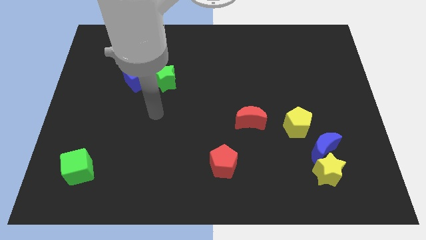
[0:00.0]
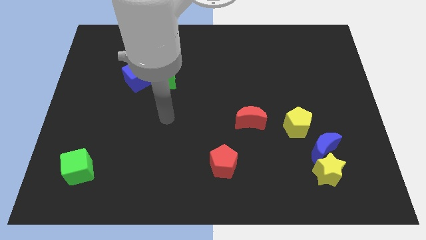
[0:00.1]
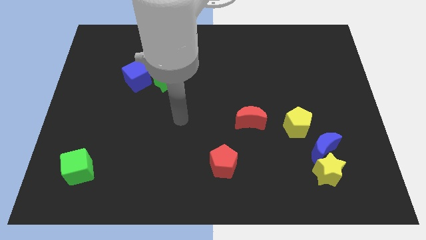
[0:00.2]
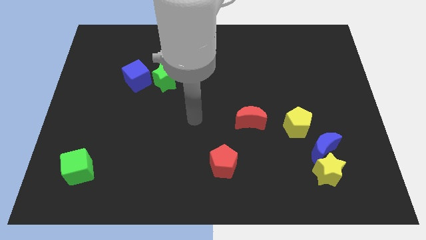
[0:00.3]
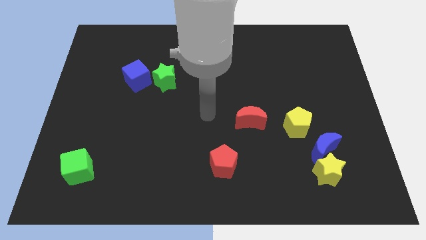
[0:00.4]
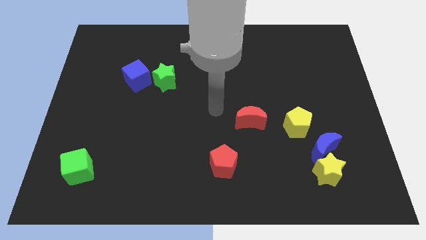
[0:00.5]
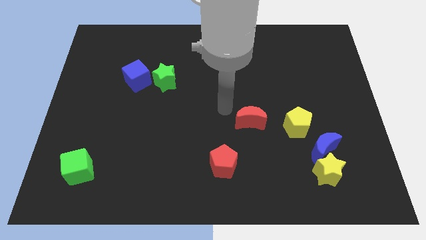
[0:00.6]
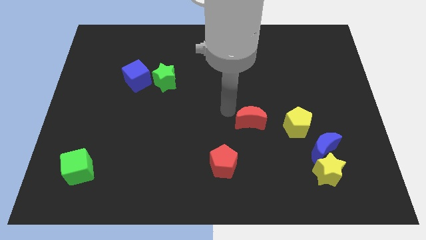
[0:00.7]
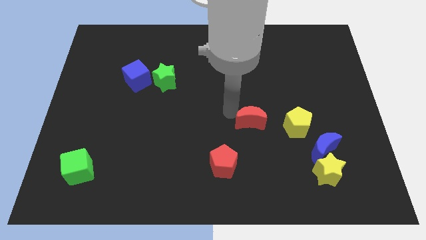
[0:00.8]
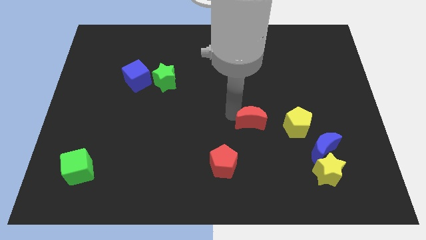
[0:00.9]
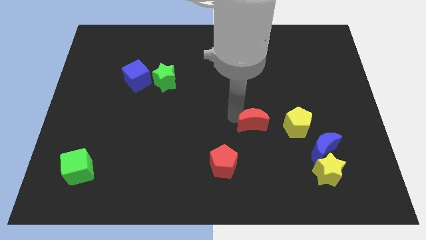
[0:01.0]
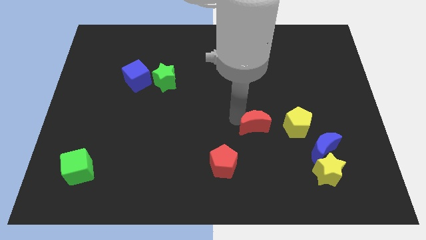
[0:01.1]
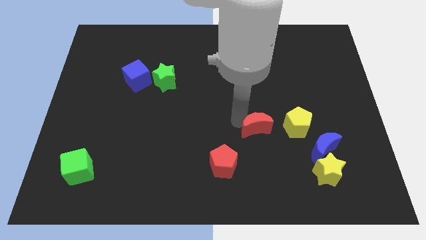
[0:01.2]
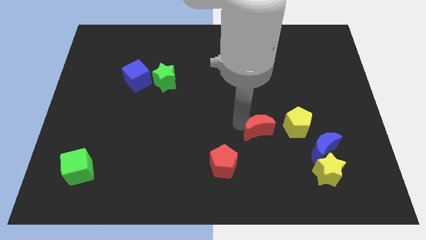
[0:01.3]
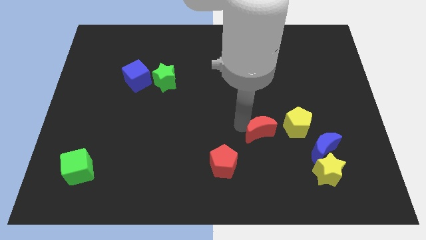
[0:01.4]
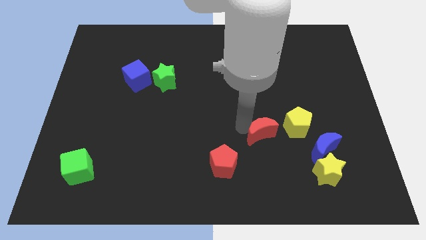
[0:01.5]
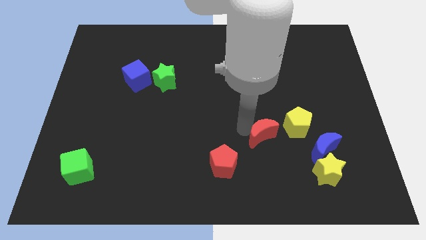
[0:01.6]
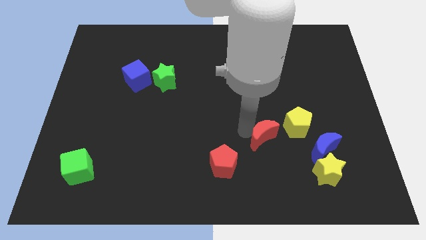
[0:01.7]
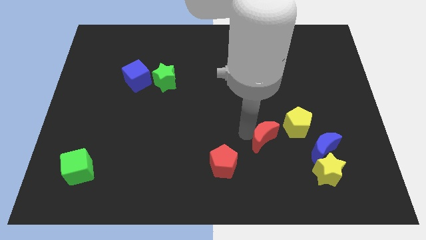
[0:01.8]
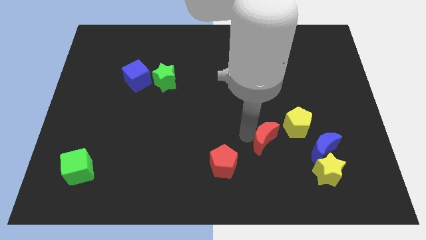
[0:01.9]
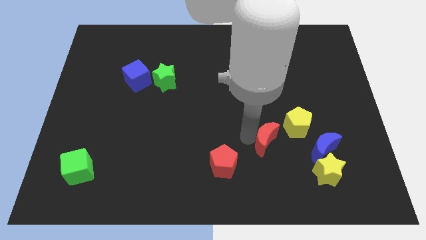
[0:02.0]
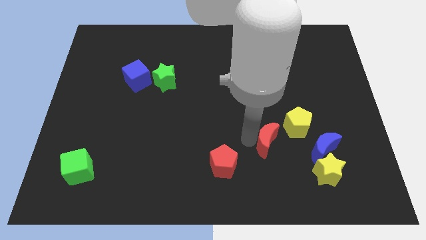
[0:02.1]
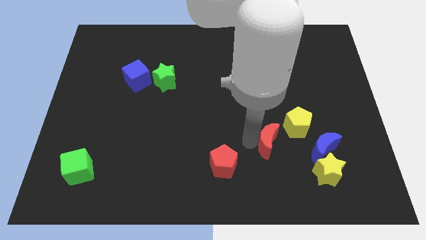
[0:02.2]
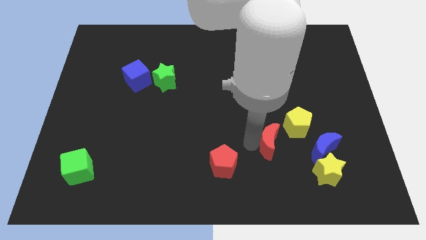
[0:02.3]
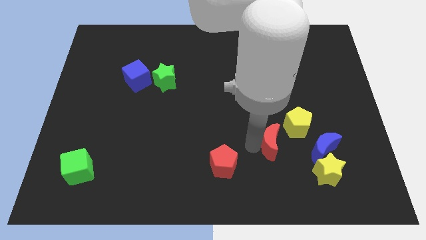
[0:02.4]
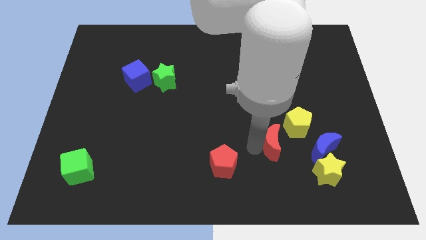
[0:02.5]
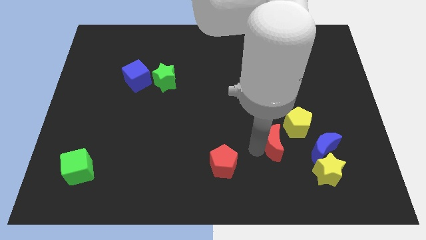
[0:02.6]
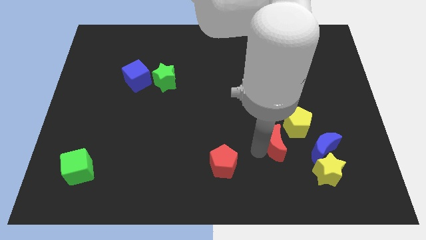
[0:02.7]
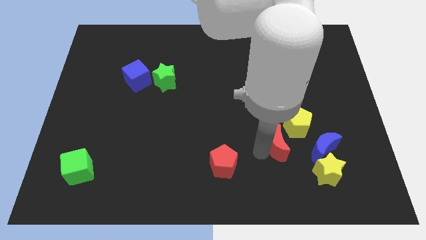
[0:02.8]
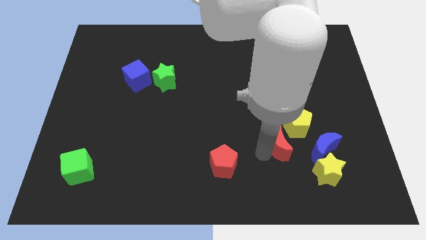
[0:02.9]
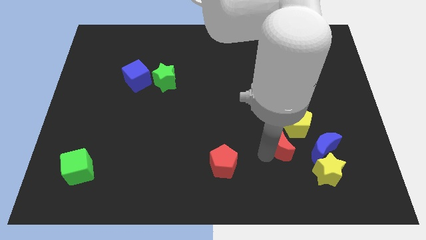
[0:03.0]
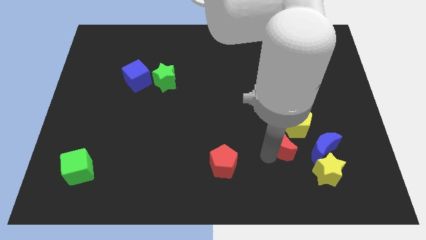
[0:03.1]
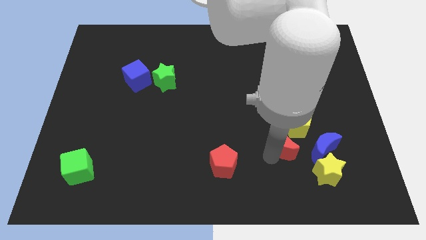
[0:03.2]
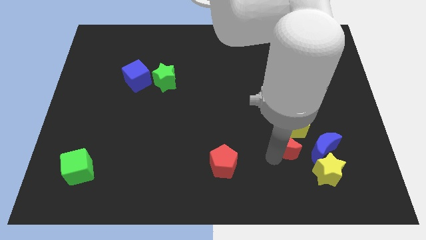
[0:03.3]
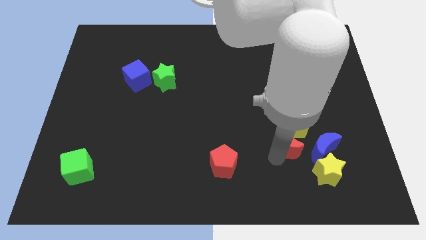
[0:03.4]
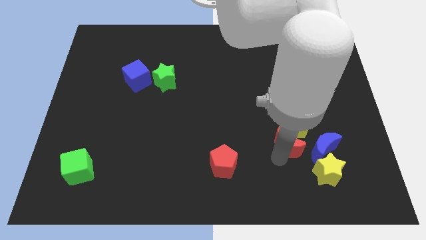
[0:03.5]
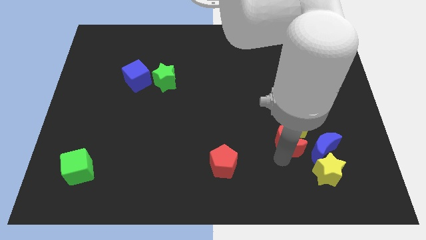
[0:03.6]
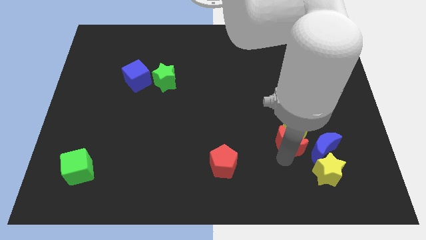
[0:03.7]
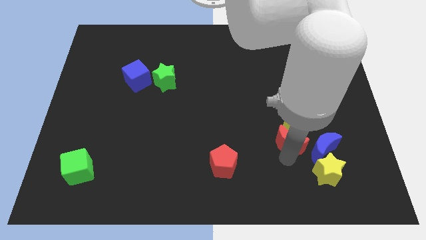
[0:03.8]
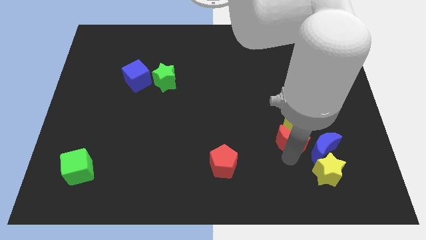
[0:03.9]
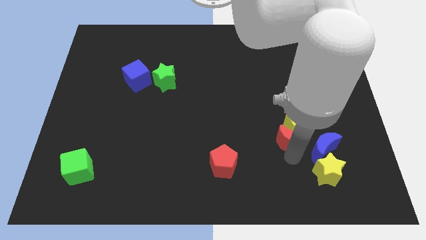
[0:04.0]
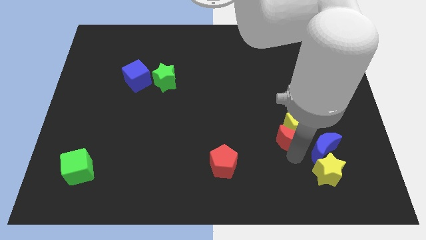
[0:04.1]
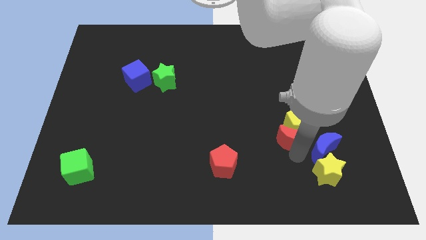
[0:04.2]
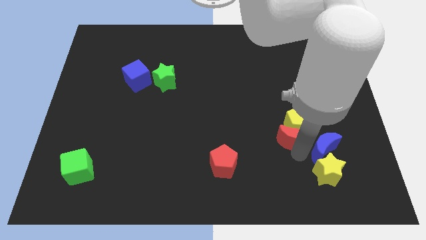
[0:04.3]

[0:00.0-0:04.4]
put the red moon towards the blue moon

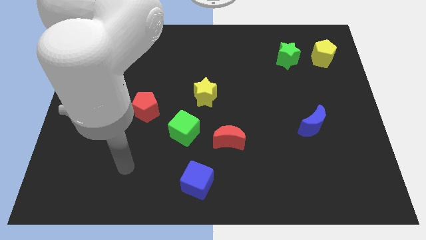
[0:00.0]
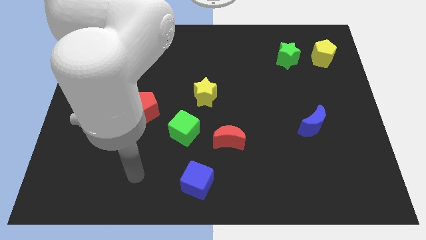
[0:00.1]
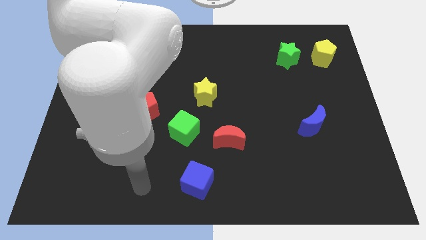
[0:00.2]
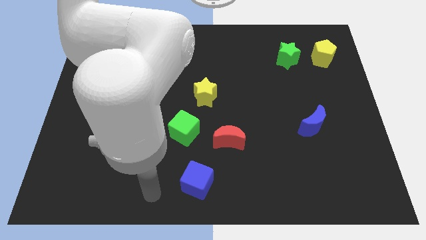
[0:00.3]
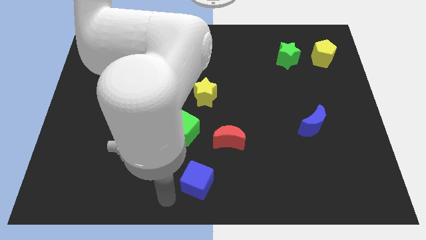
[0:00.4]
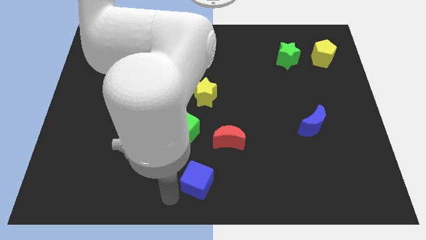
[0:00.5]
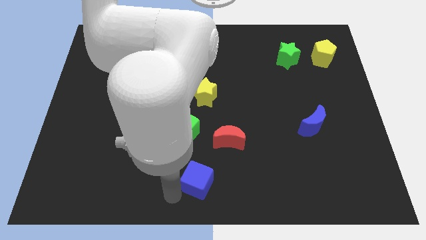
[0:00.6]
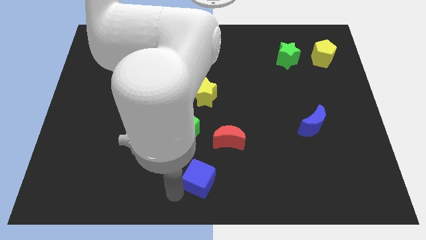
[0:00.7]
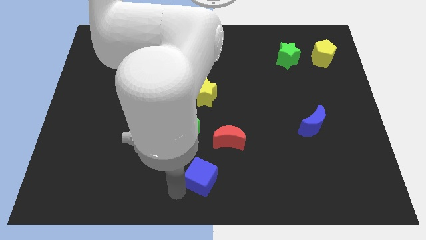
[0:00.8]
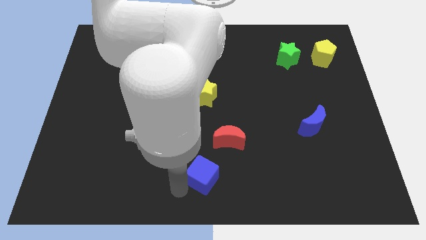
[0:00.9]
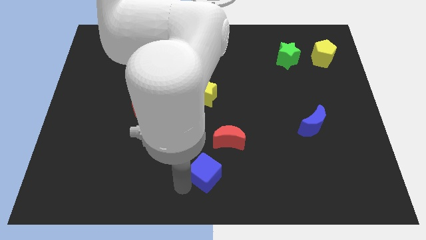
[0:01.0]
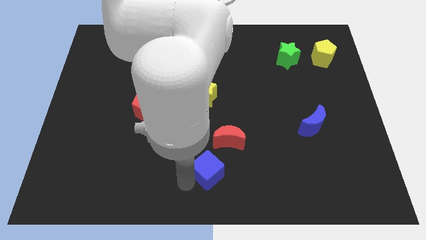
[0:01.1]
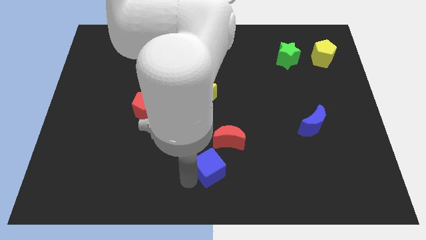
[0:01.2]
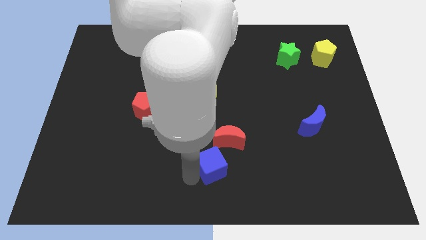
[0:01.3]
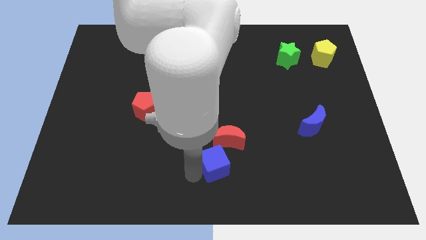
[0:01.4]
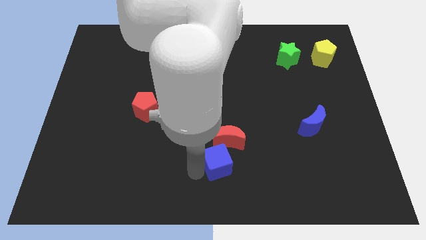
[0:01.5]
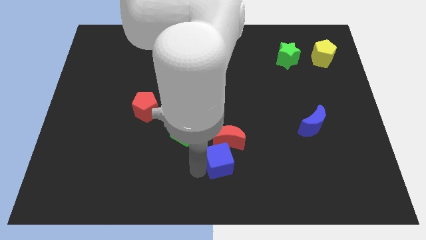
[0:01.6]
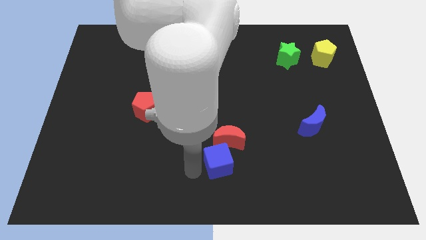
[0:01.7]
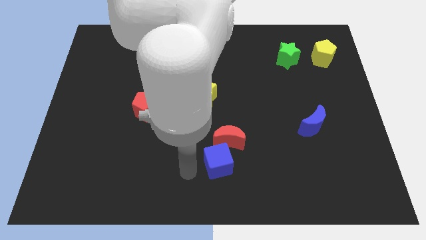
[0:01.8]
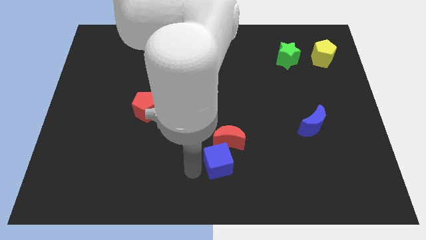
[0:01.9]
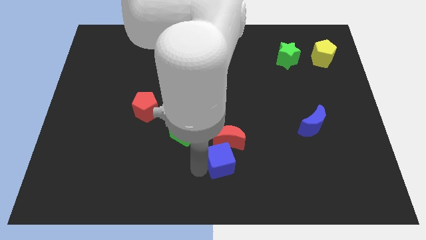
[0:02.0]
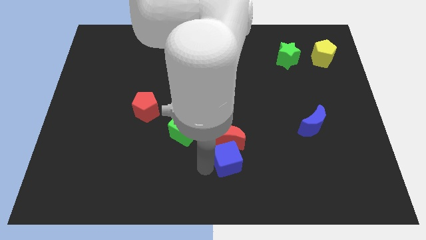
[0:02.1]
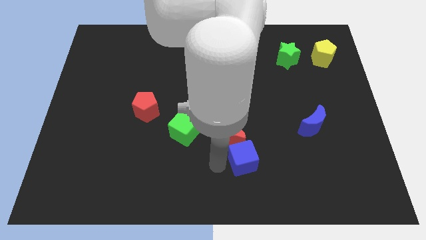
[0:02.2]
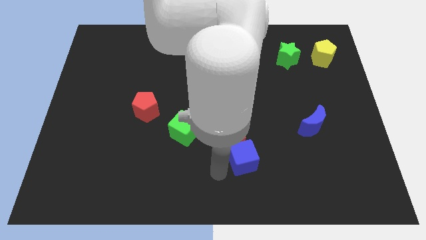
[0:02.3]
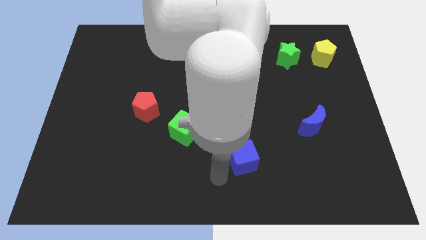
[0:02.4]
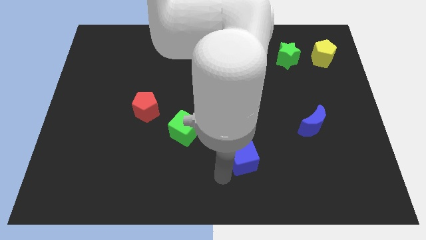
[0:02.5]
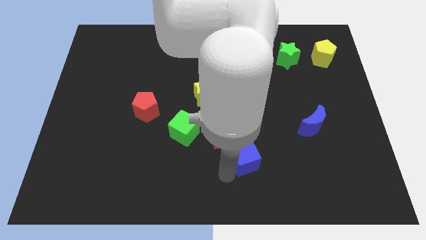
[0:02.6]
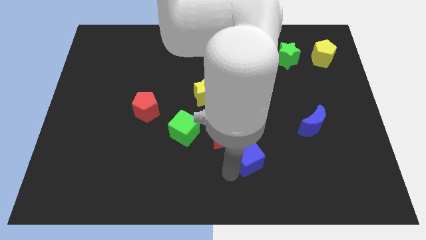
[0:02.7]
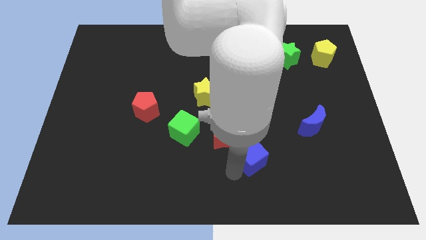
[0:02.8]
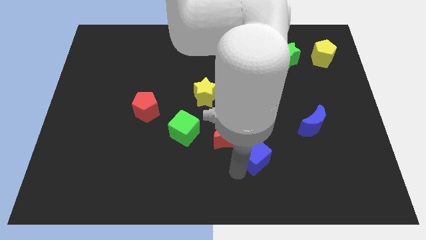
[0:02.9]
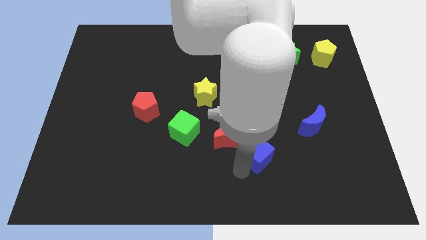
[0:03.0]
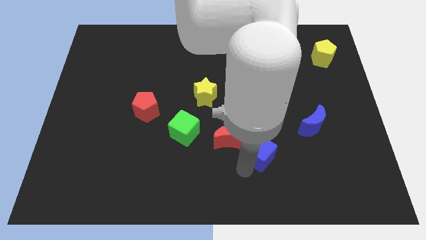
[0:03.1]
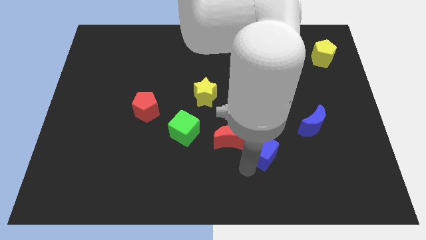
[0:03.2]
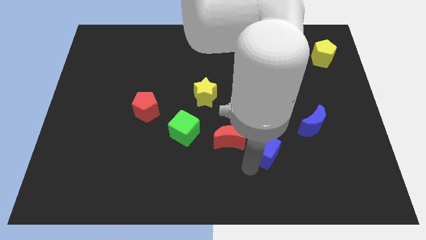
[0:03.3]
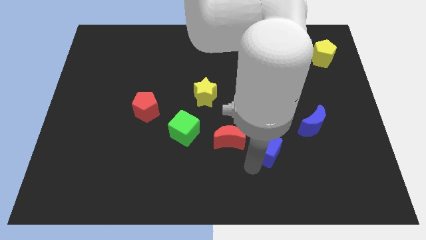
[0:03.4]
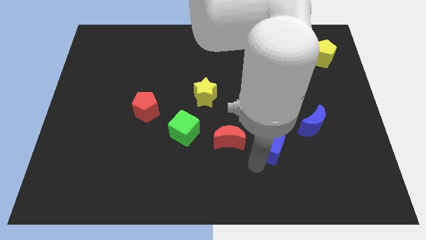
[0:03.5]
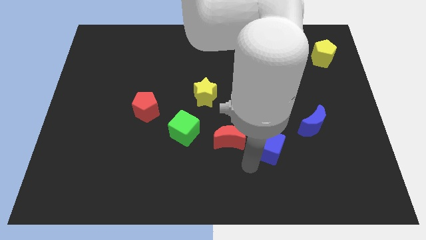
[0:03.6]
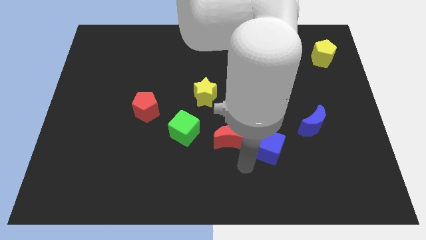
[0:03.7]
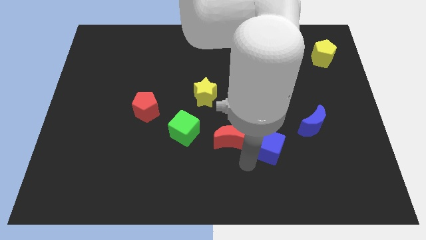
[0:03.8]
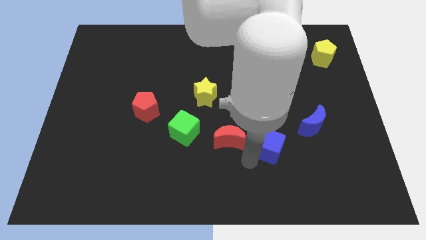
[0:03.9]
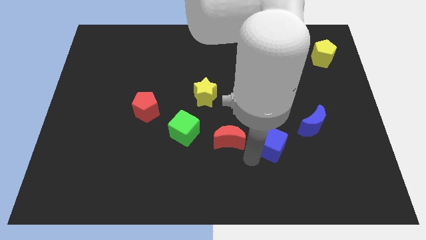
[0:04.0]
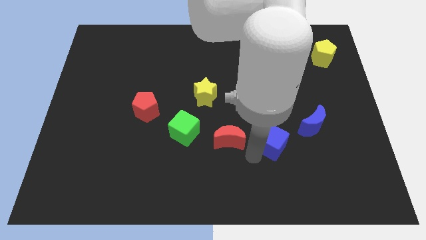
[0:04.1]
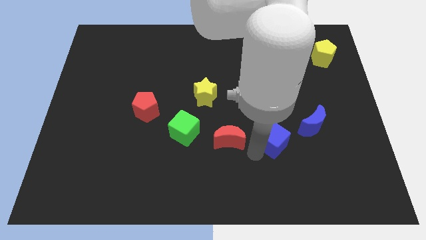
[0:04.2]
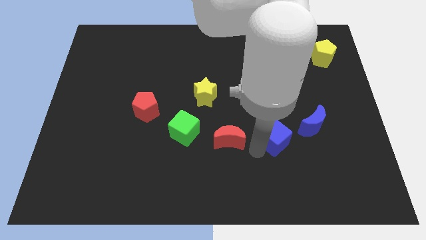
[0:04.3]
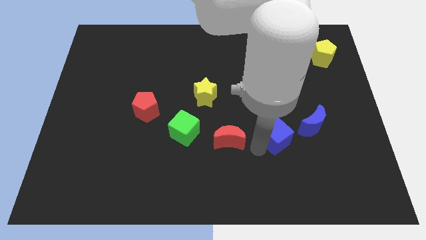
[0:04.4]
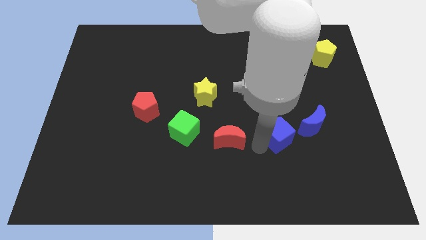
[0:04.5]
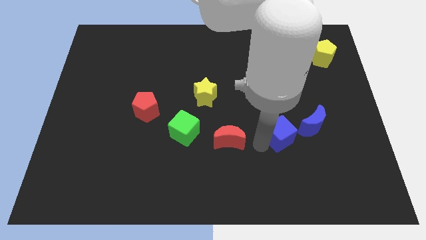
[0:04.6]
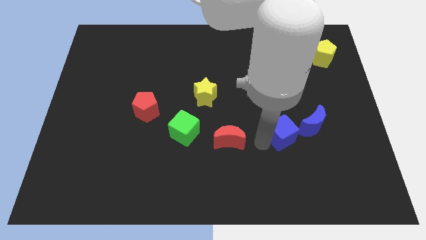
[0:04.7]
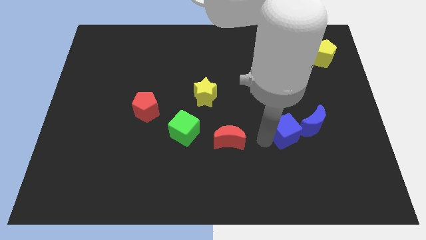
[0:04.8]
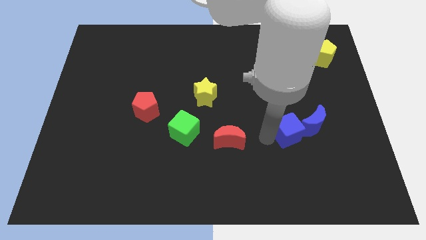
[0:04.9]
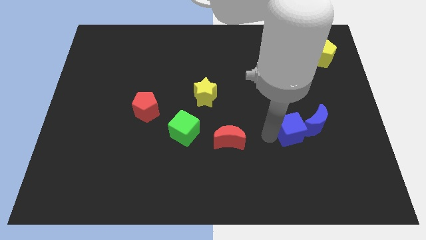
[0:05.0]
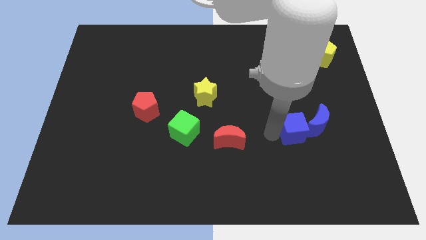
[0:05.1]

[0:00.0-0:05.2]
push the blue cube next to the blue moon
